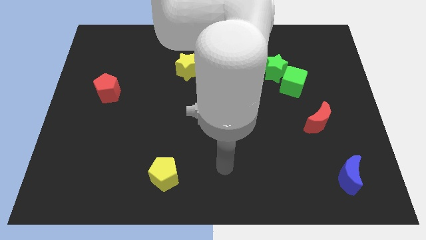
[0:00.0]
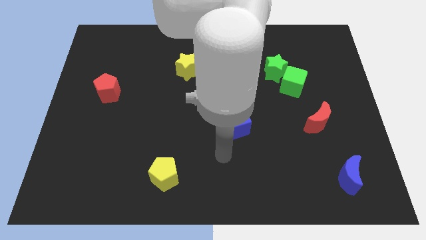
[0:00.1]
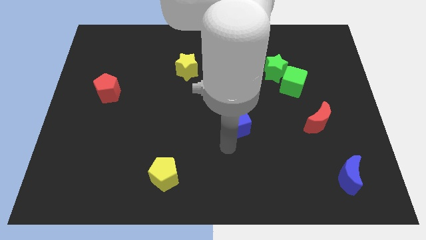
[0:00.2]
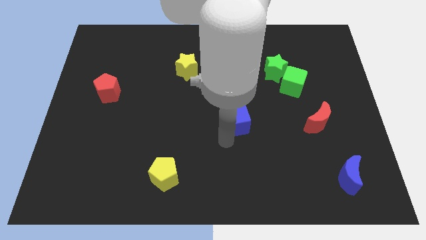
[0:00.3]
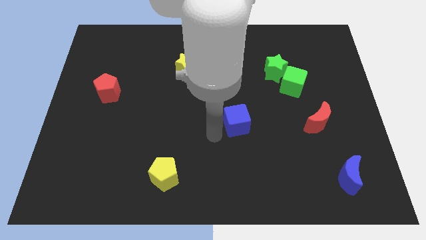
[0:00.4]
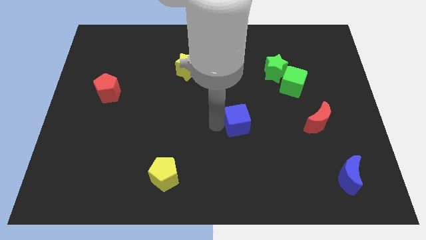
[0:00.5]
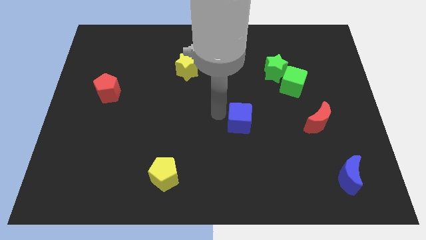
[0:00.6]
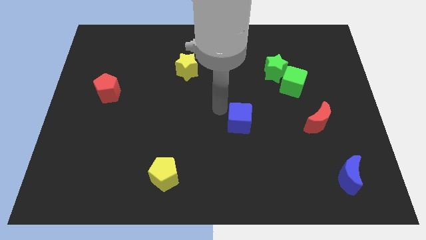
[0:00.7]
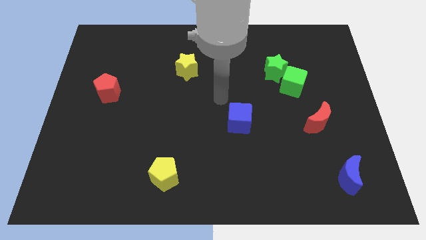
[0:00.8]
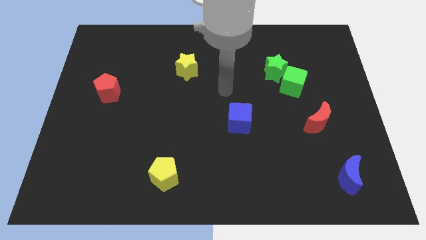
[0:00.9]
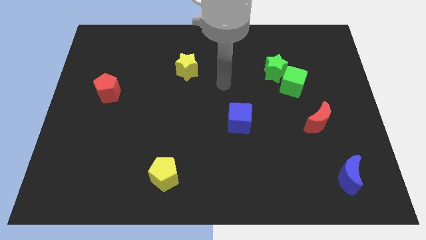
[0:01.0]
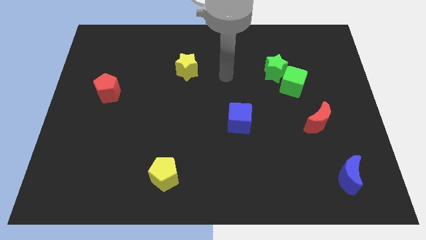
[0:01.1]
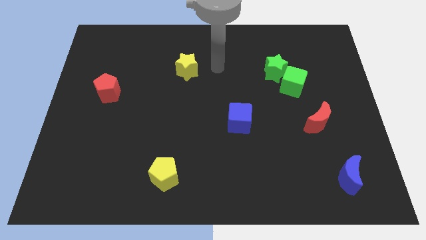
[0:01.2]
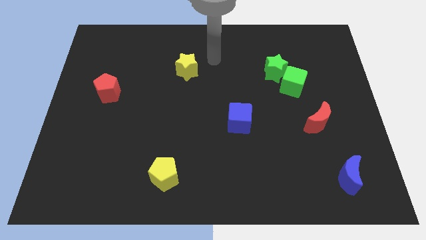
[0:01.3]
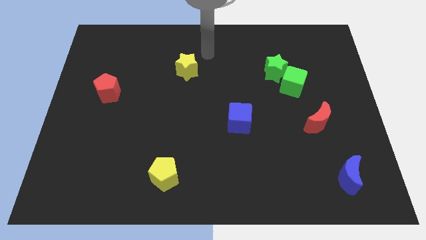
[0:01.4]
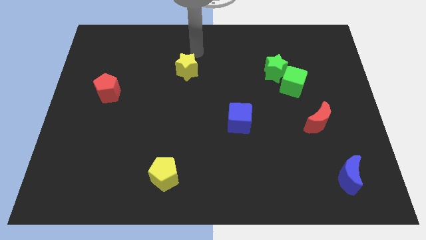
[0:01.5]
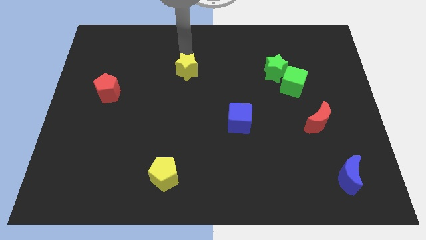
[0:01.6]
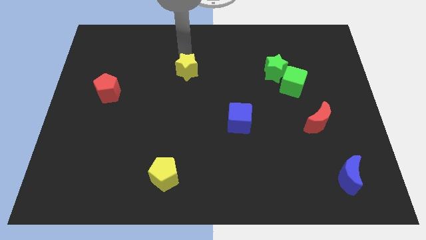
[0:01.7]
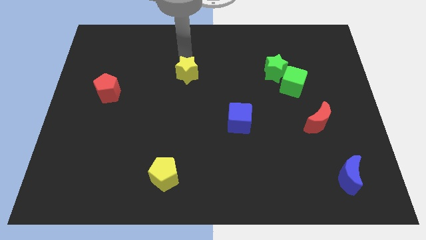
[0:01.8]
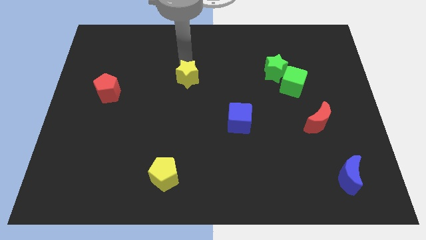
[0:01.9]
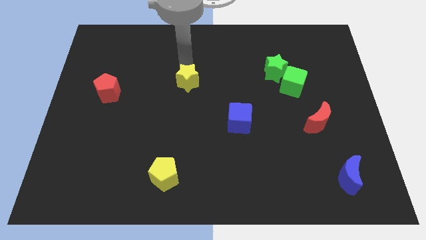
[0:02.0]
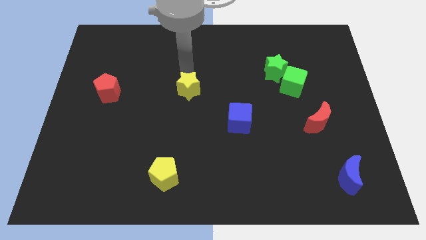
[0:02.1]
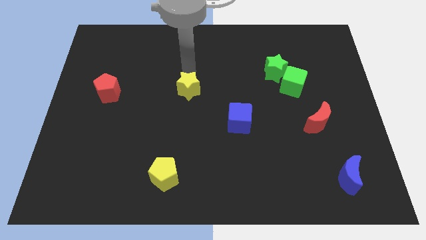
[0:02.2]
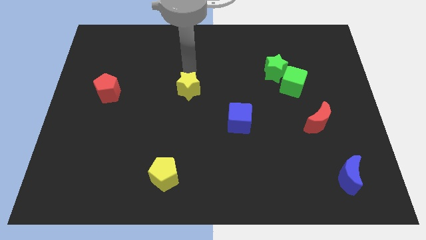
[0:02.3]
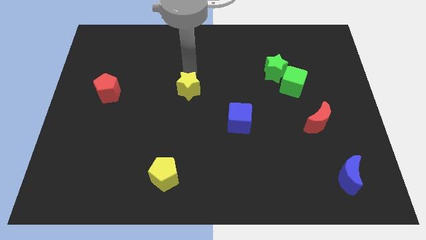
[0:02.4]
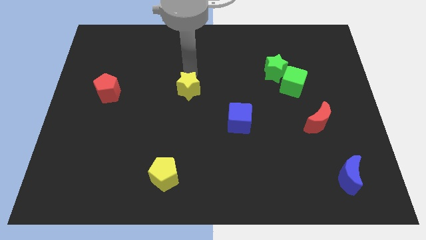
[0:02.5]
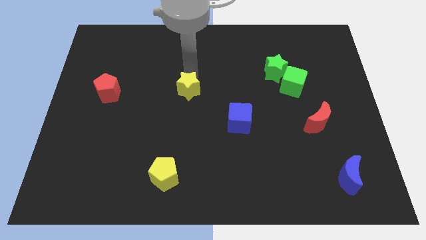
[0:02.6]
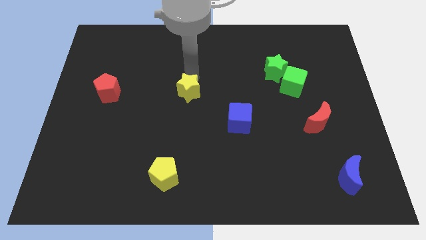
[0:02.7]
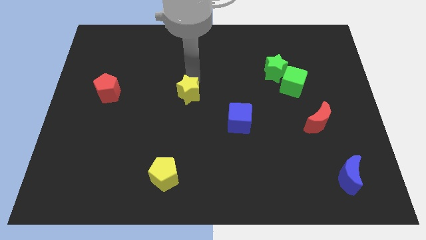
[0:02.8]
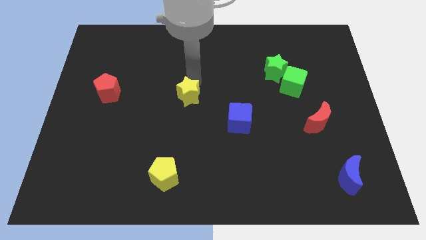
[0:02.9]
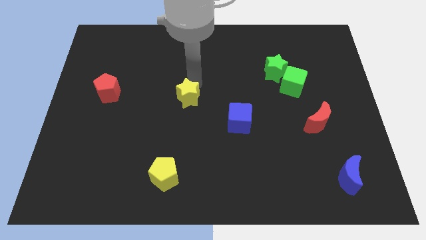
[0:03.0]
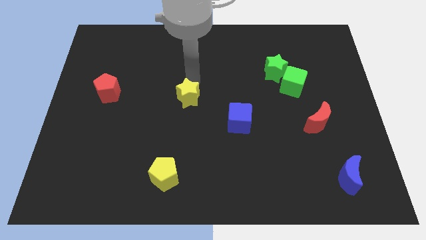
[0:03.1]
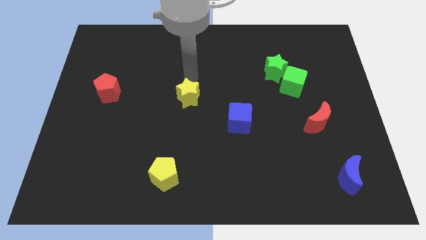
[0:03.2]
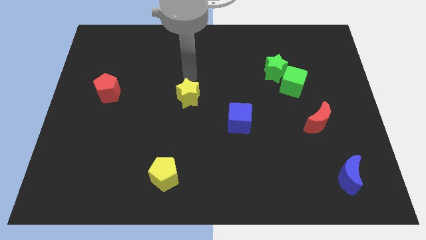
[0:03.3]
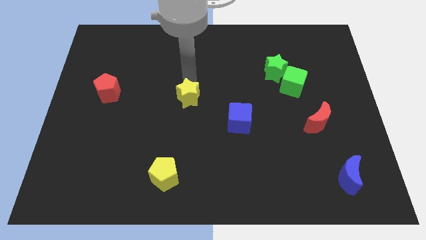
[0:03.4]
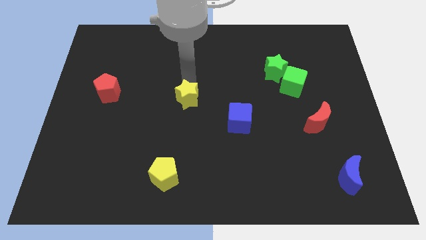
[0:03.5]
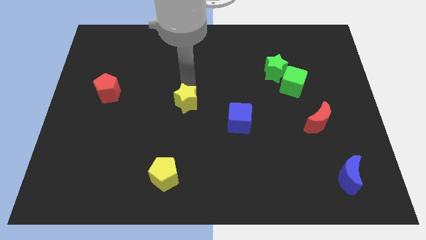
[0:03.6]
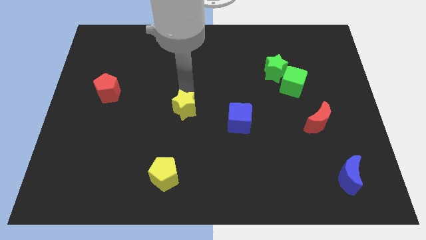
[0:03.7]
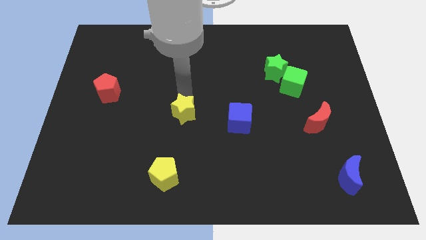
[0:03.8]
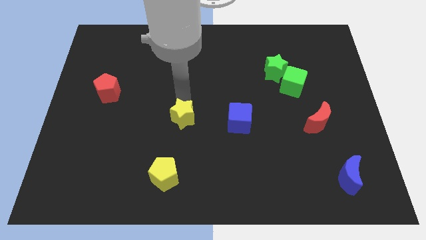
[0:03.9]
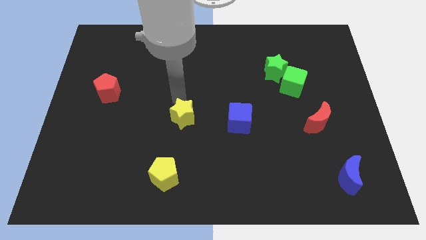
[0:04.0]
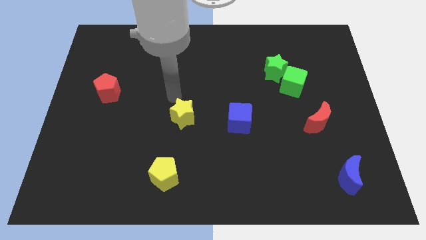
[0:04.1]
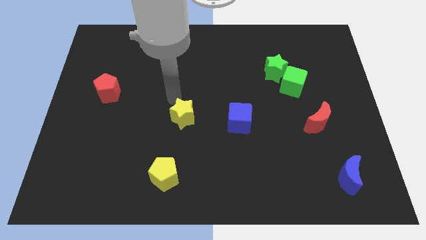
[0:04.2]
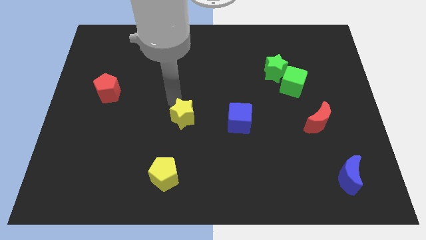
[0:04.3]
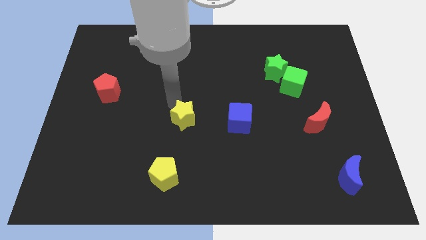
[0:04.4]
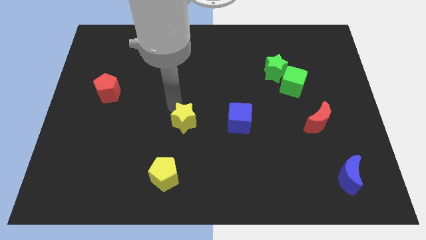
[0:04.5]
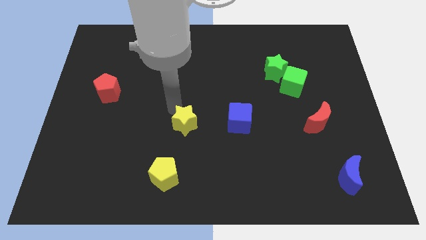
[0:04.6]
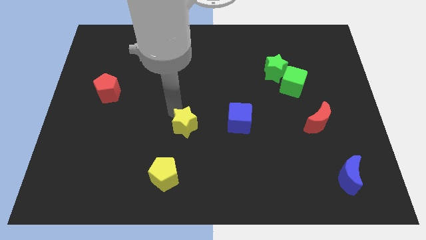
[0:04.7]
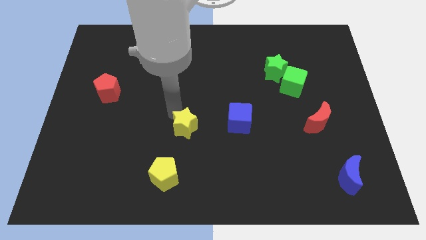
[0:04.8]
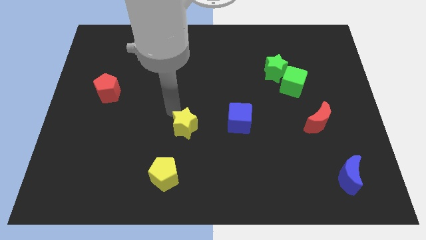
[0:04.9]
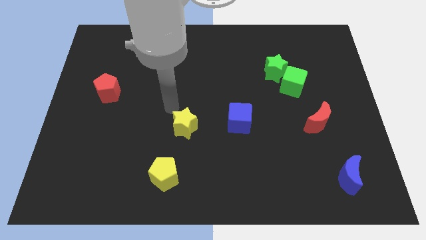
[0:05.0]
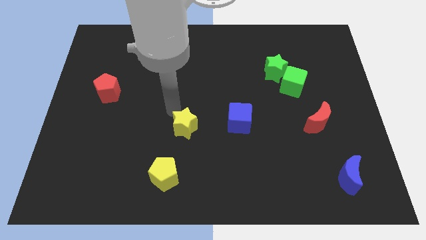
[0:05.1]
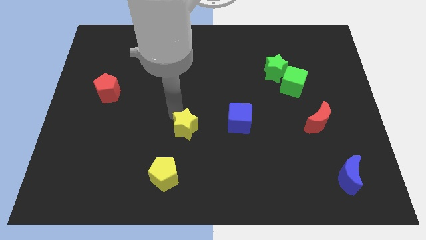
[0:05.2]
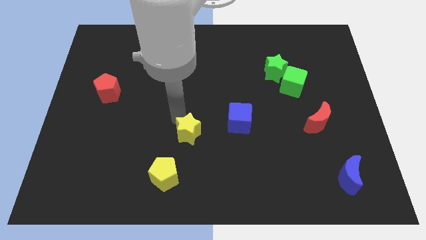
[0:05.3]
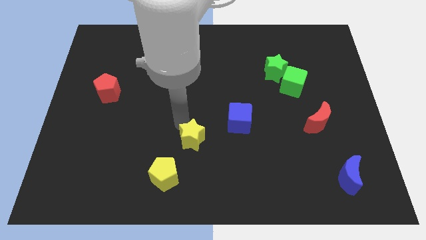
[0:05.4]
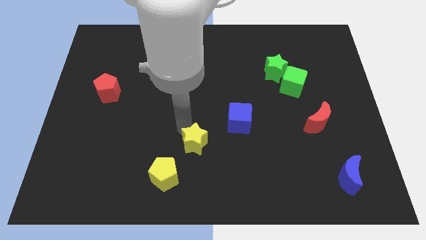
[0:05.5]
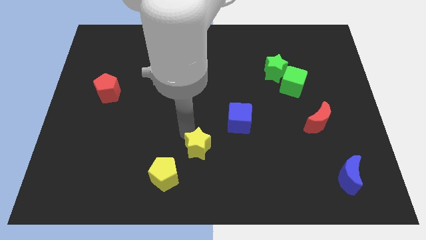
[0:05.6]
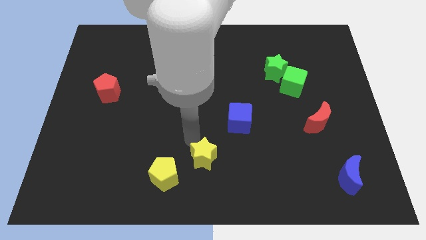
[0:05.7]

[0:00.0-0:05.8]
slide the yellow star to the right side of the yellow pentagon

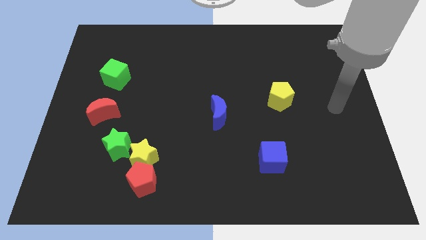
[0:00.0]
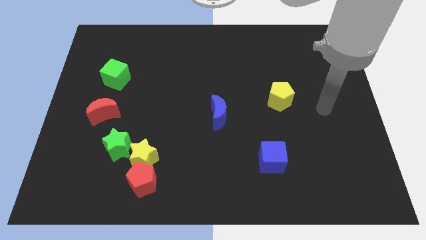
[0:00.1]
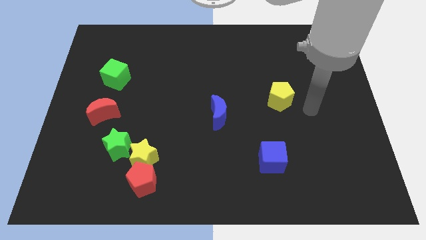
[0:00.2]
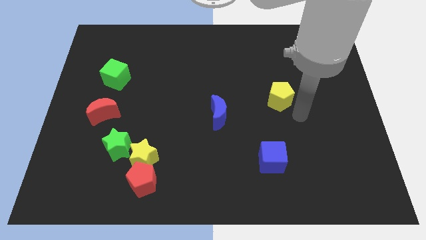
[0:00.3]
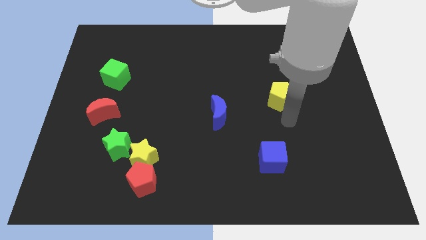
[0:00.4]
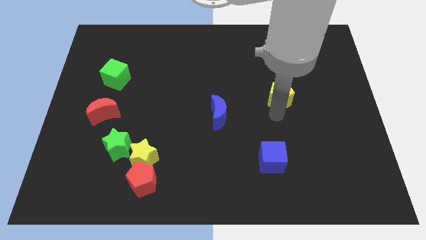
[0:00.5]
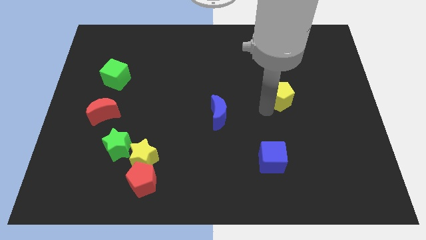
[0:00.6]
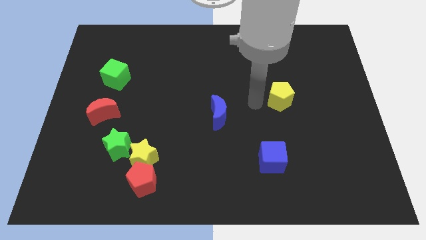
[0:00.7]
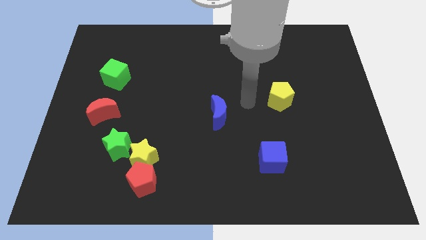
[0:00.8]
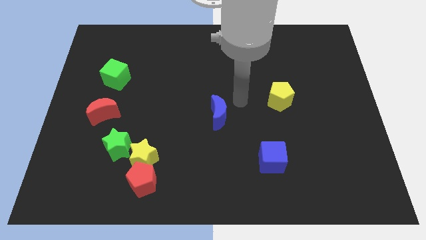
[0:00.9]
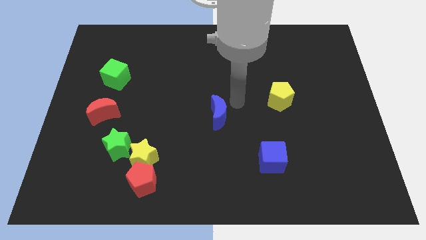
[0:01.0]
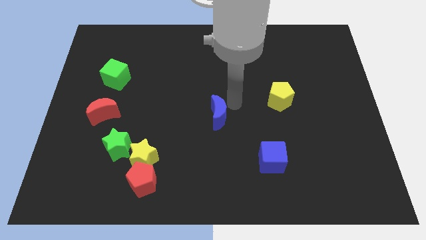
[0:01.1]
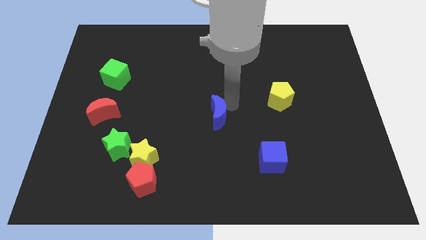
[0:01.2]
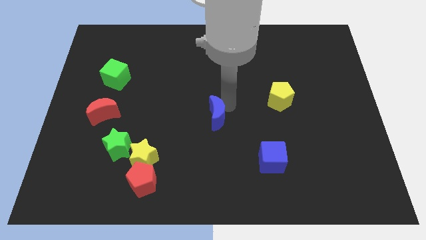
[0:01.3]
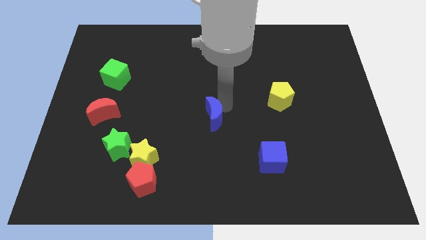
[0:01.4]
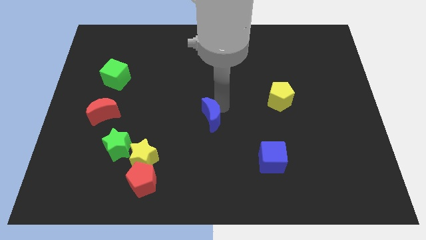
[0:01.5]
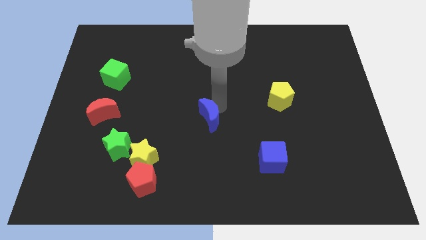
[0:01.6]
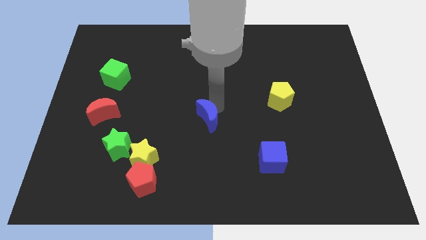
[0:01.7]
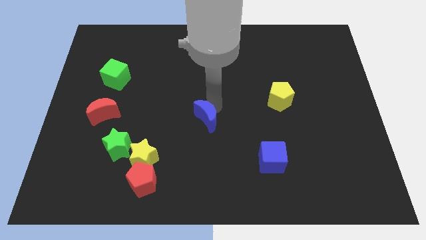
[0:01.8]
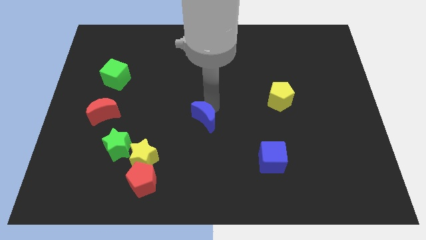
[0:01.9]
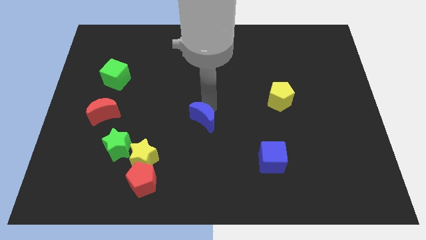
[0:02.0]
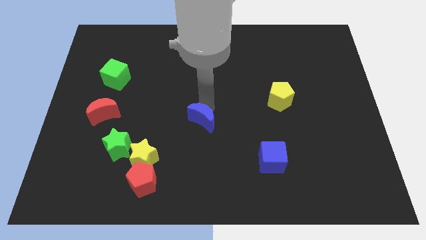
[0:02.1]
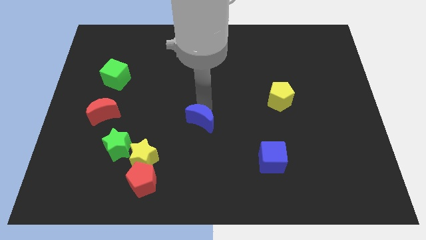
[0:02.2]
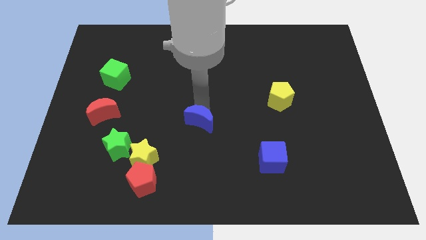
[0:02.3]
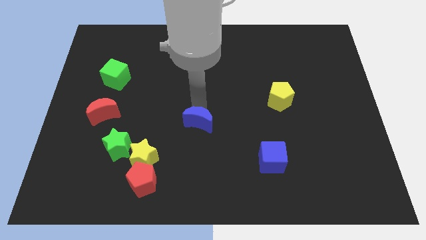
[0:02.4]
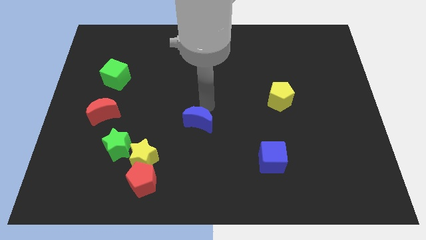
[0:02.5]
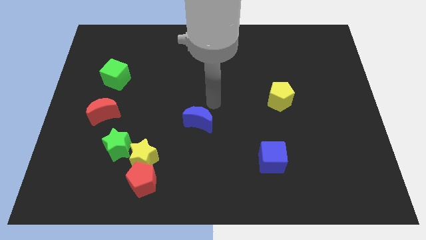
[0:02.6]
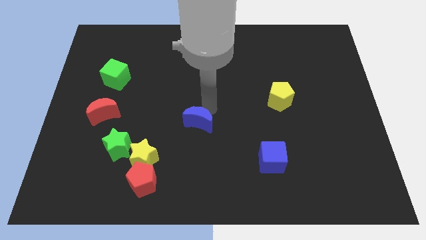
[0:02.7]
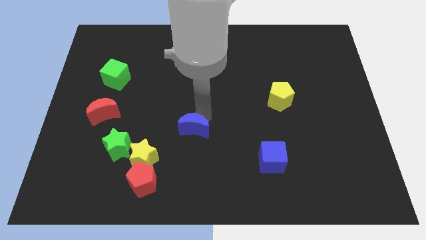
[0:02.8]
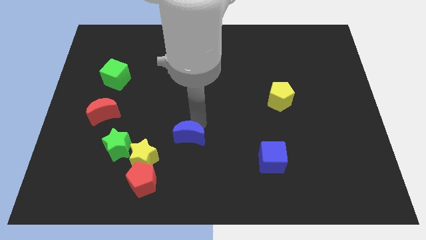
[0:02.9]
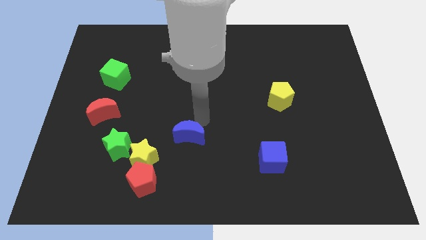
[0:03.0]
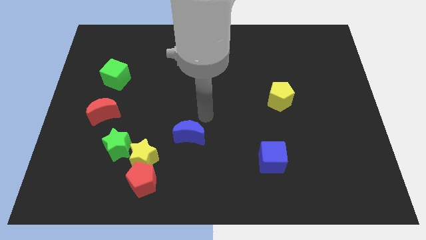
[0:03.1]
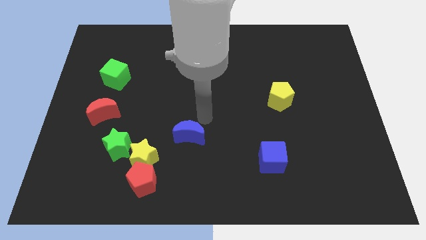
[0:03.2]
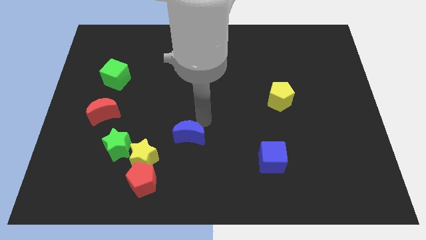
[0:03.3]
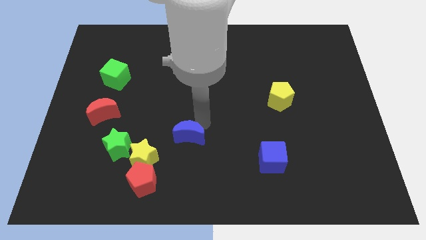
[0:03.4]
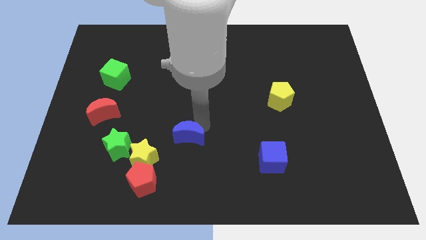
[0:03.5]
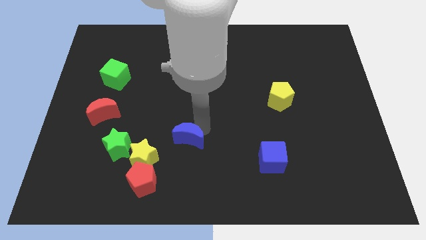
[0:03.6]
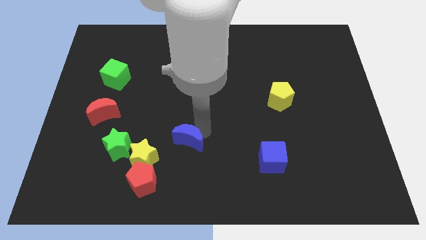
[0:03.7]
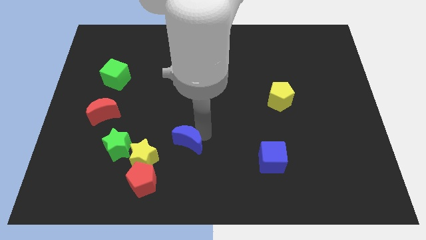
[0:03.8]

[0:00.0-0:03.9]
move the blue moon diagonally up and to the right of the red pentagon
